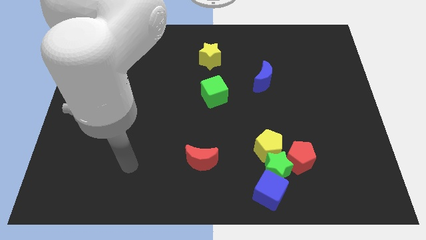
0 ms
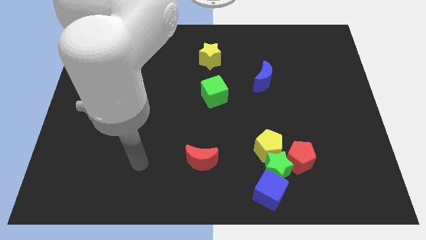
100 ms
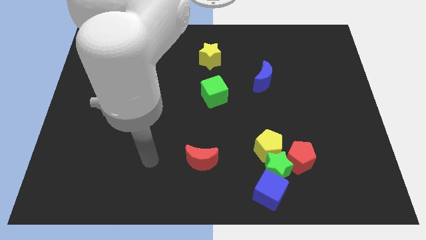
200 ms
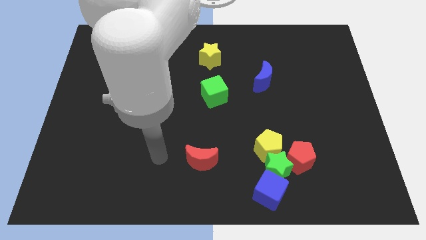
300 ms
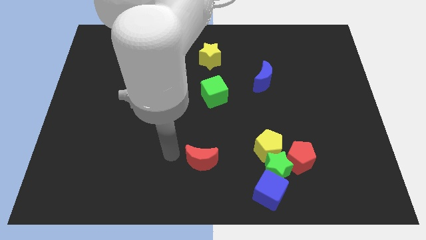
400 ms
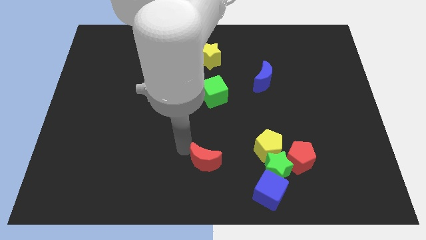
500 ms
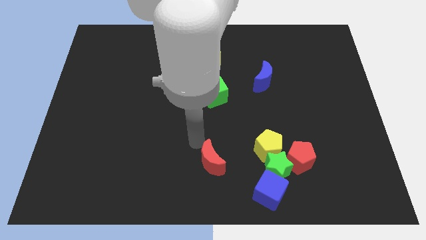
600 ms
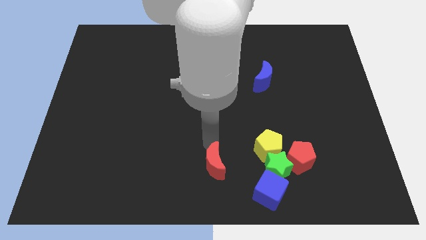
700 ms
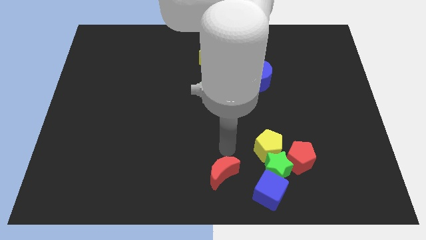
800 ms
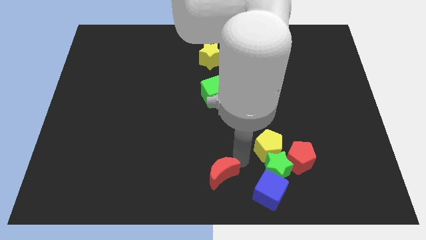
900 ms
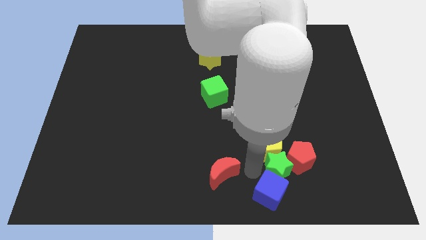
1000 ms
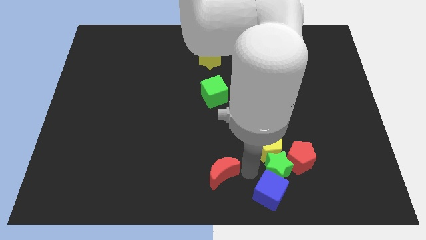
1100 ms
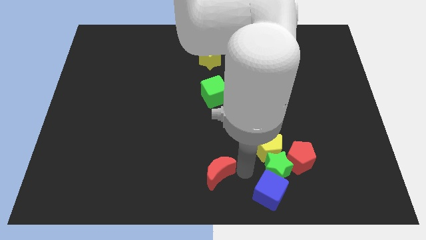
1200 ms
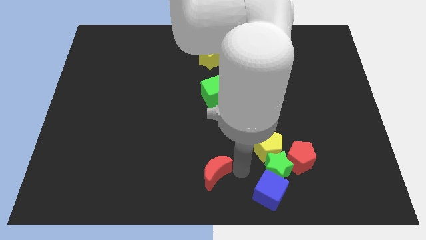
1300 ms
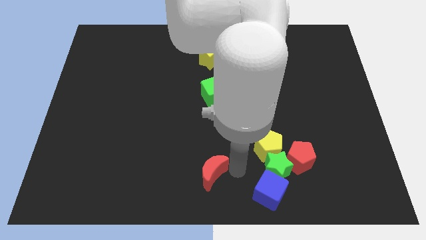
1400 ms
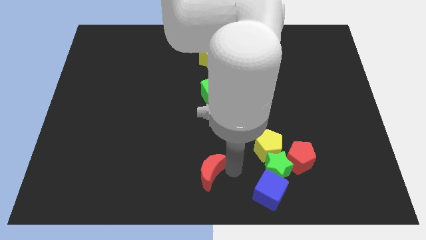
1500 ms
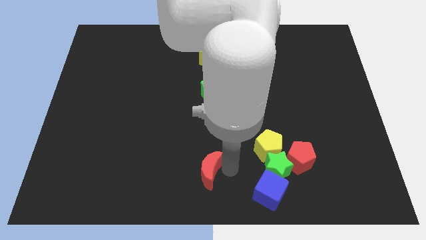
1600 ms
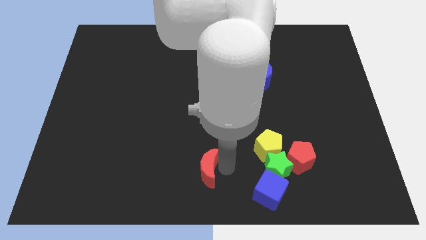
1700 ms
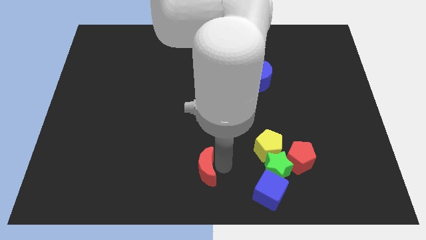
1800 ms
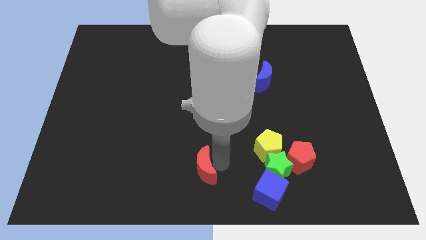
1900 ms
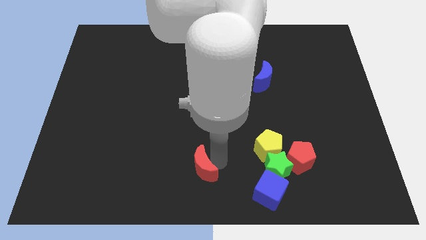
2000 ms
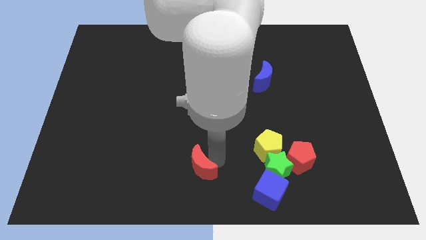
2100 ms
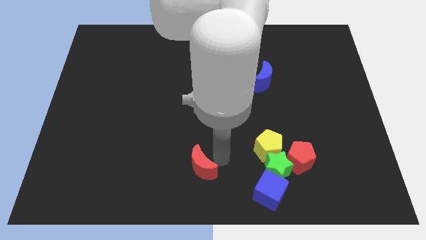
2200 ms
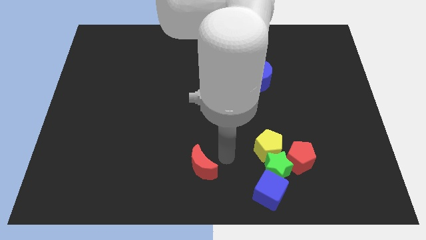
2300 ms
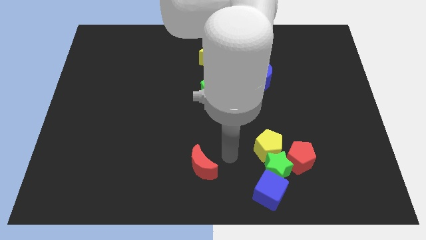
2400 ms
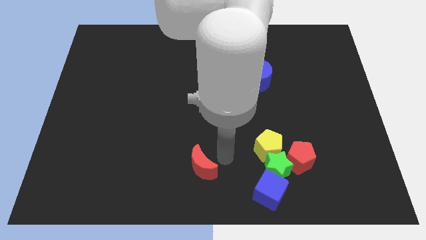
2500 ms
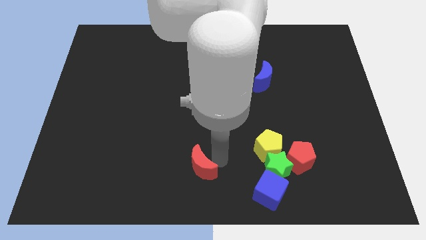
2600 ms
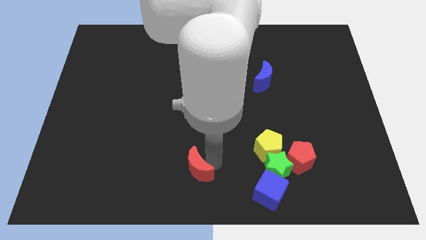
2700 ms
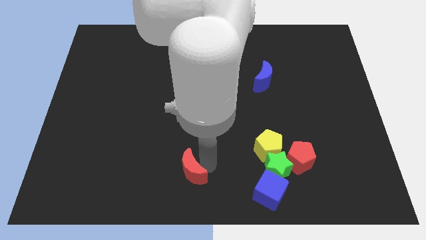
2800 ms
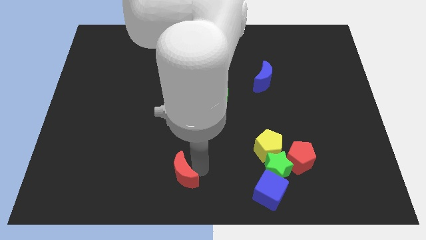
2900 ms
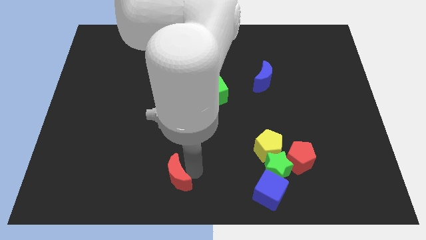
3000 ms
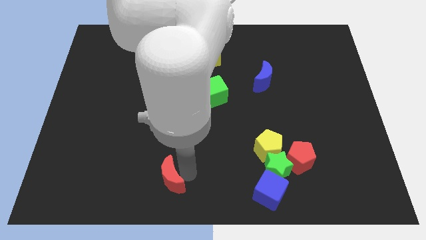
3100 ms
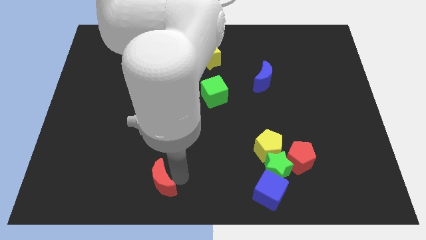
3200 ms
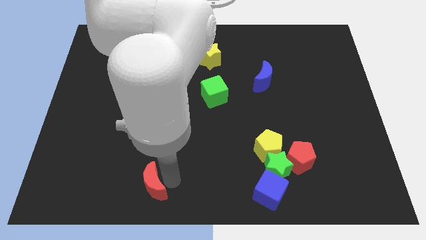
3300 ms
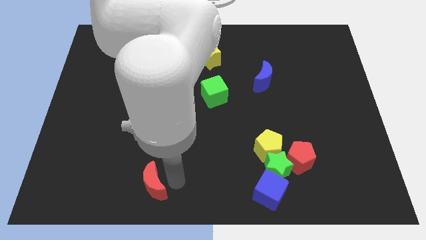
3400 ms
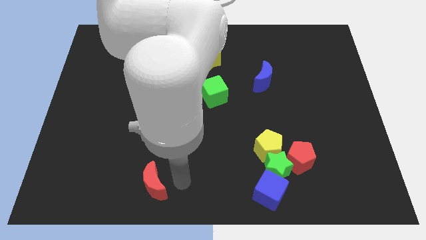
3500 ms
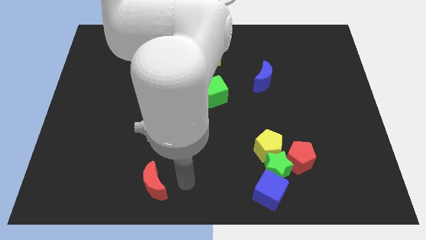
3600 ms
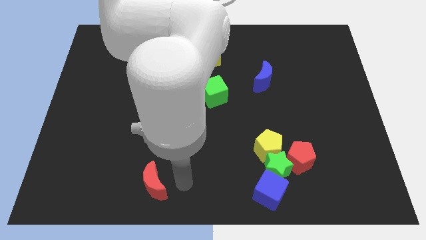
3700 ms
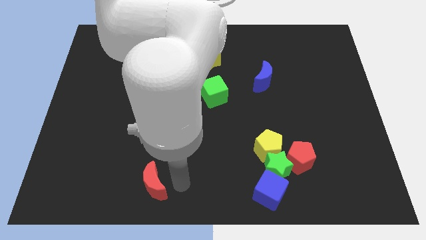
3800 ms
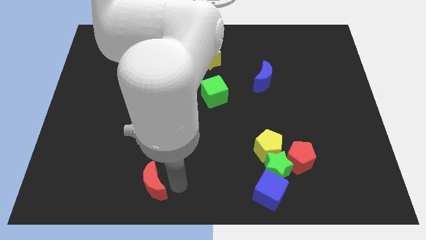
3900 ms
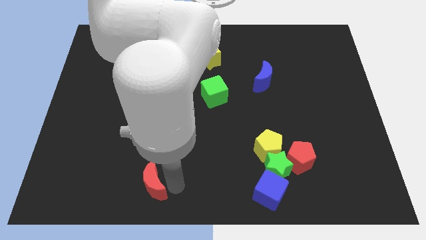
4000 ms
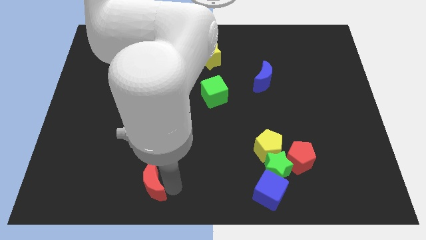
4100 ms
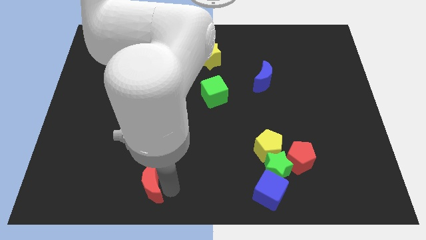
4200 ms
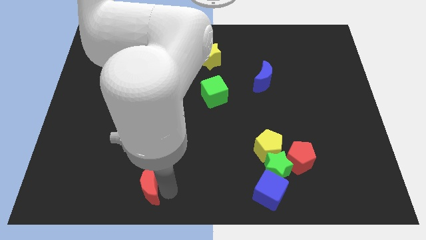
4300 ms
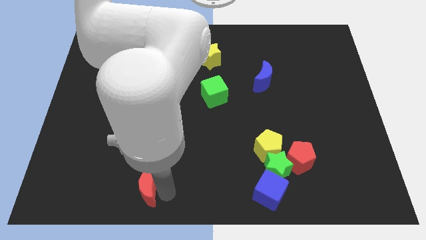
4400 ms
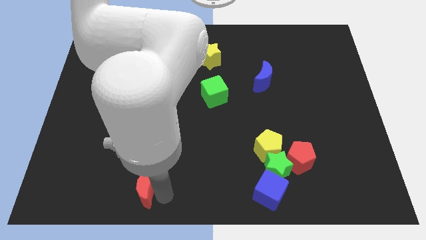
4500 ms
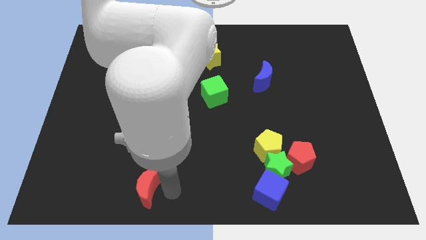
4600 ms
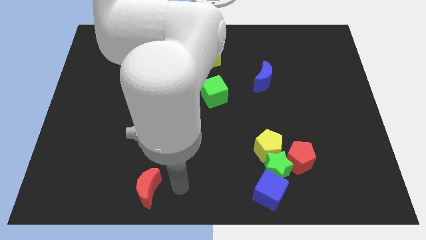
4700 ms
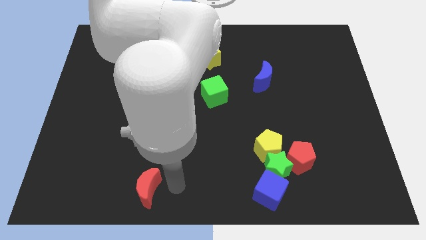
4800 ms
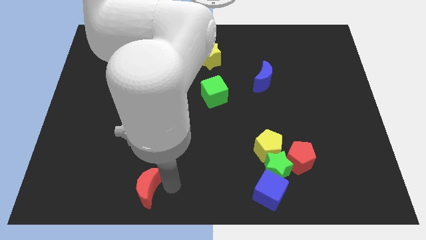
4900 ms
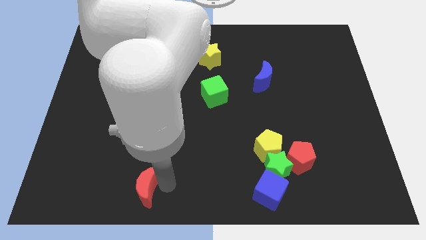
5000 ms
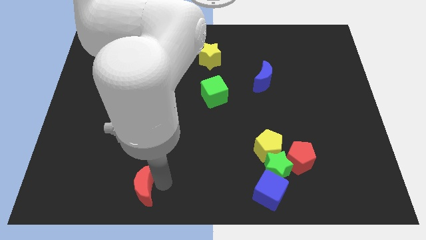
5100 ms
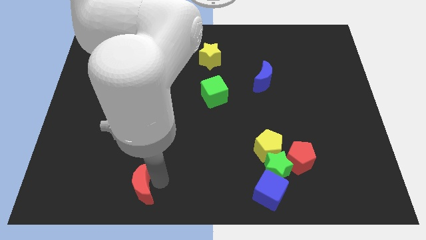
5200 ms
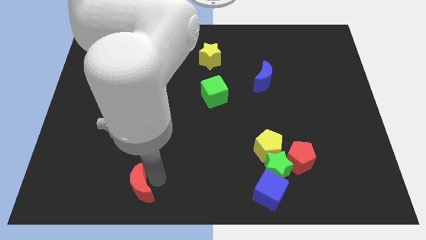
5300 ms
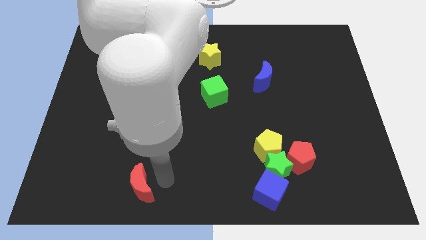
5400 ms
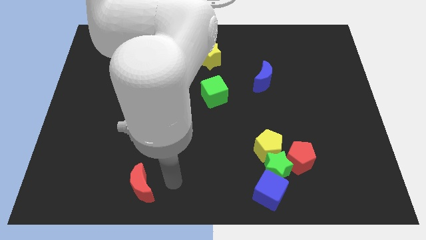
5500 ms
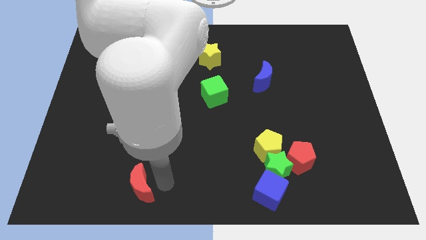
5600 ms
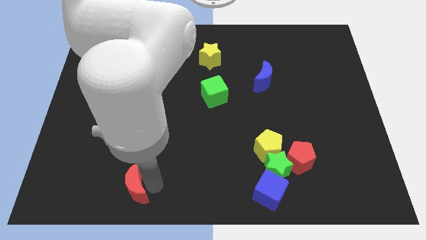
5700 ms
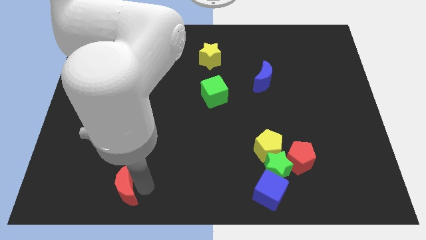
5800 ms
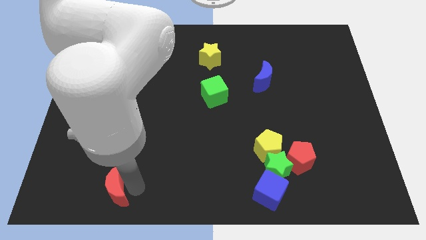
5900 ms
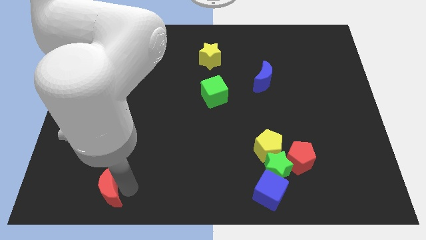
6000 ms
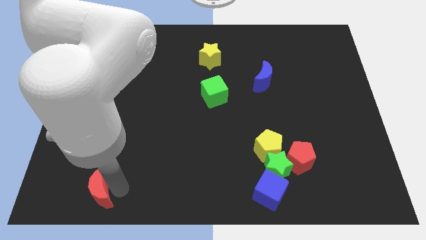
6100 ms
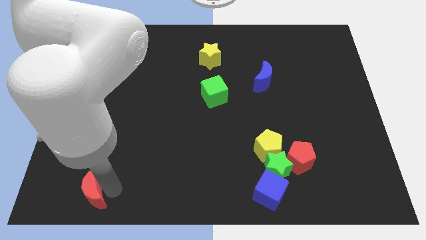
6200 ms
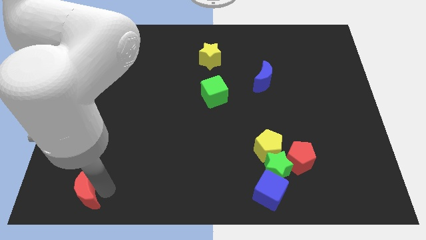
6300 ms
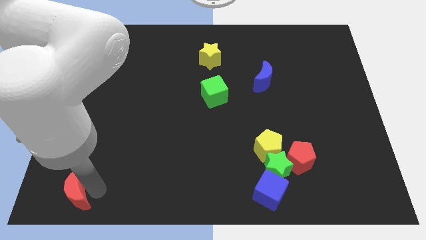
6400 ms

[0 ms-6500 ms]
push the red moon to the bottom left corner
